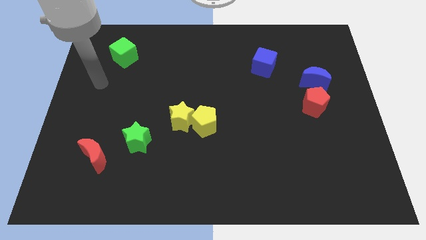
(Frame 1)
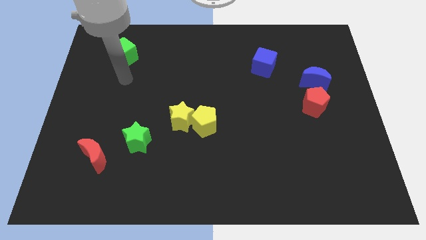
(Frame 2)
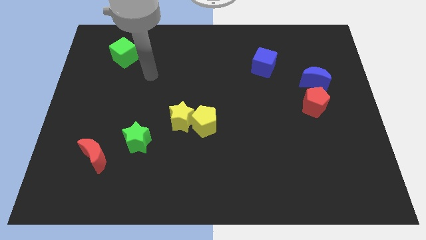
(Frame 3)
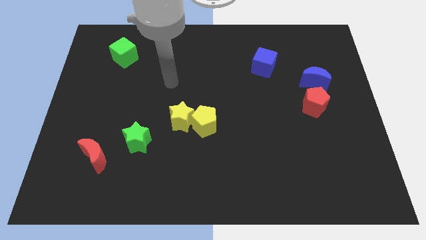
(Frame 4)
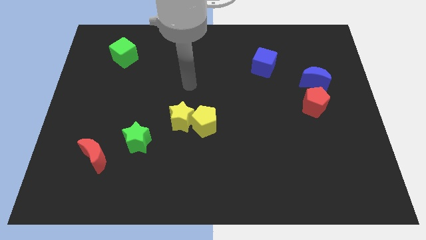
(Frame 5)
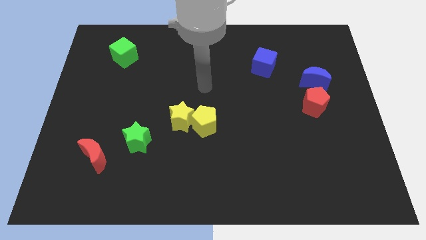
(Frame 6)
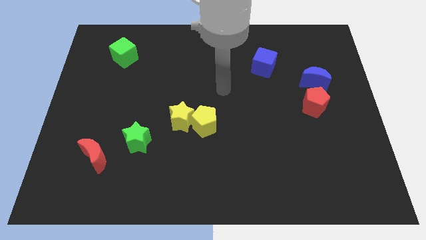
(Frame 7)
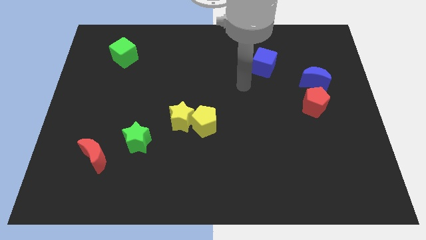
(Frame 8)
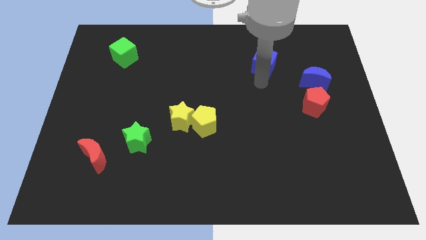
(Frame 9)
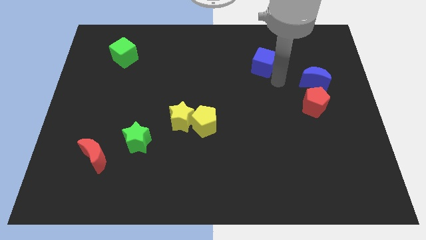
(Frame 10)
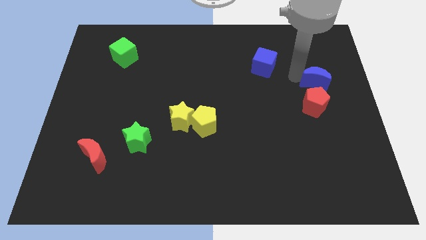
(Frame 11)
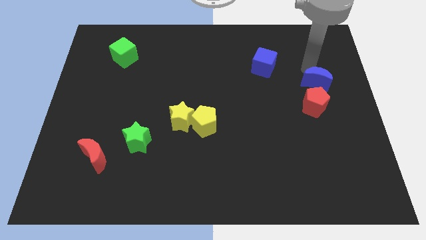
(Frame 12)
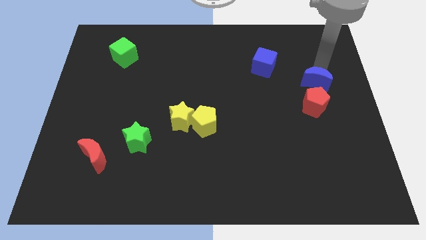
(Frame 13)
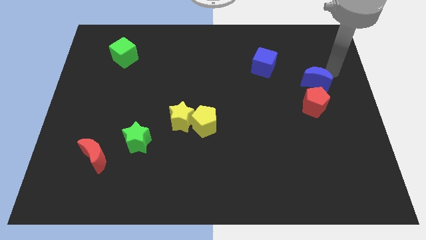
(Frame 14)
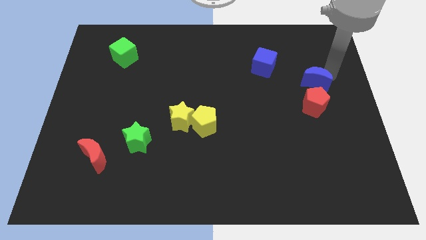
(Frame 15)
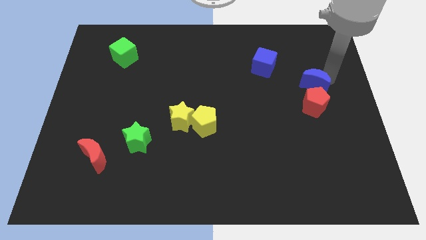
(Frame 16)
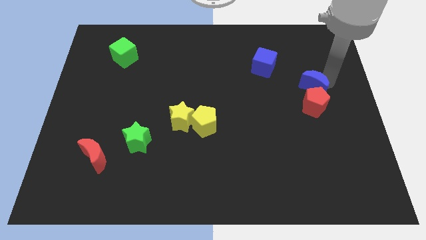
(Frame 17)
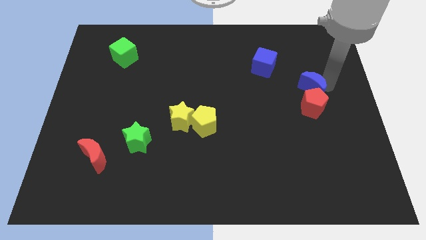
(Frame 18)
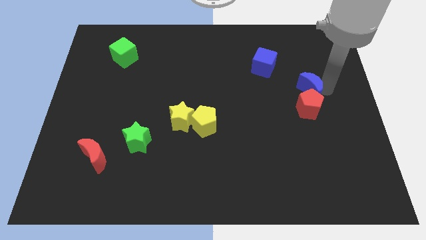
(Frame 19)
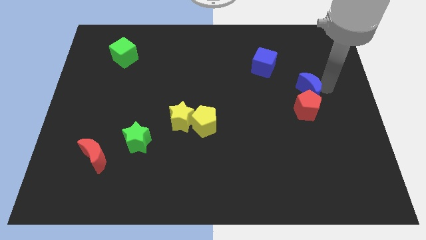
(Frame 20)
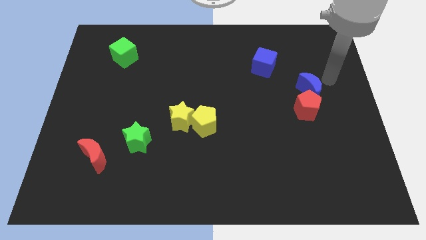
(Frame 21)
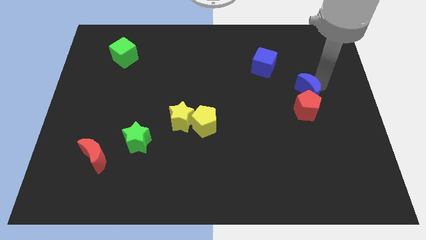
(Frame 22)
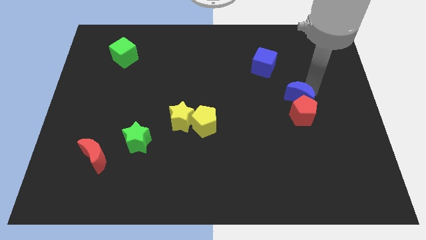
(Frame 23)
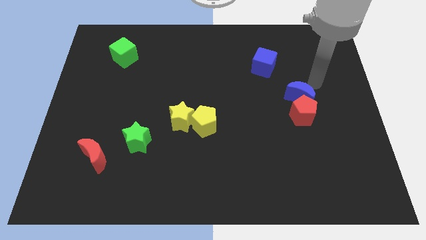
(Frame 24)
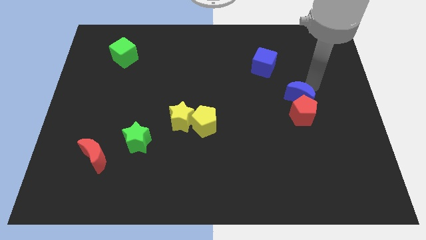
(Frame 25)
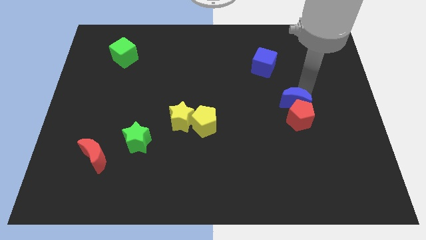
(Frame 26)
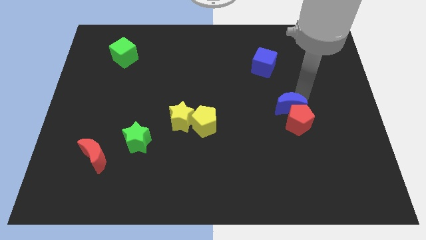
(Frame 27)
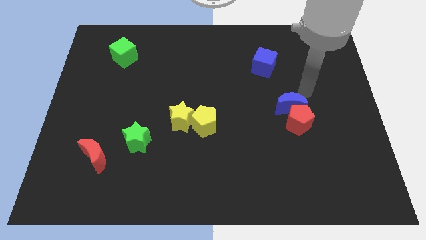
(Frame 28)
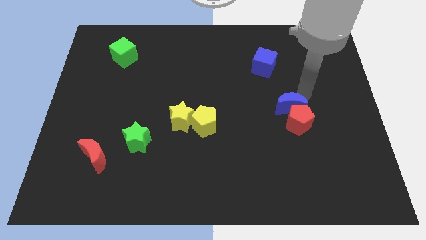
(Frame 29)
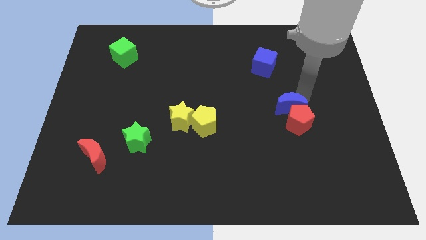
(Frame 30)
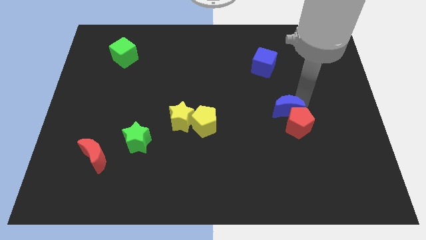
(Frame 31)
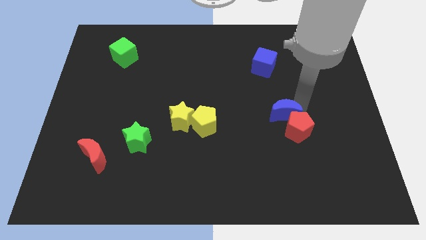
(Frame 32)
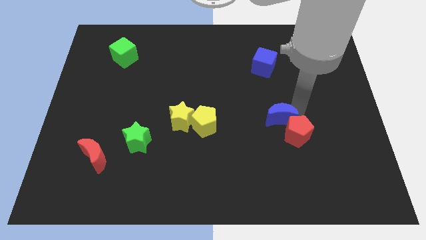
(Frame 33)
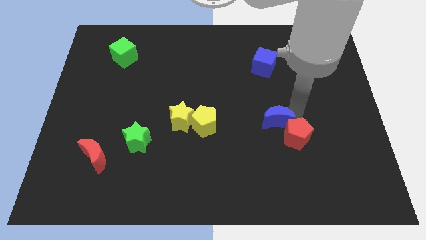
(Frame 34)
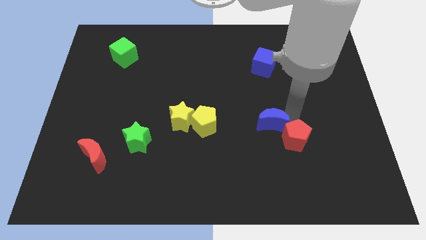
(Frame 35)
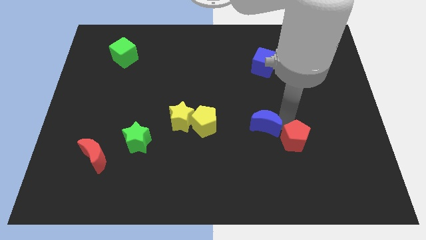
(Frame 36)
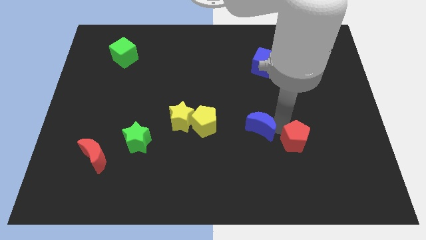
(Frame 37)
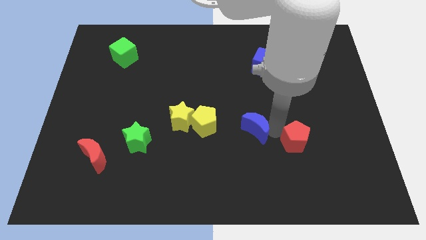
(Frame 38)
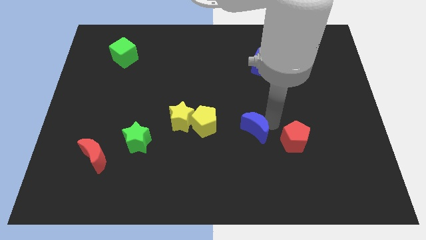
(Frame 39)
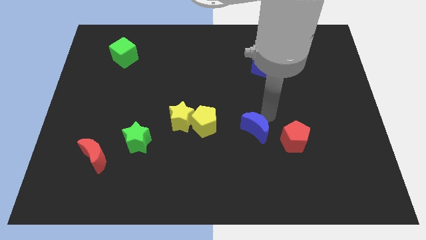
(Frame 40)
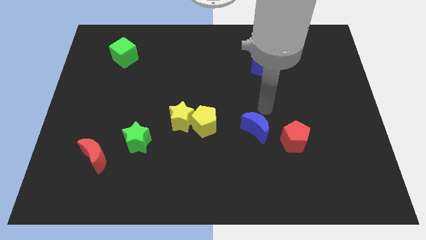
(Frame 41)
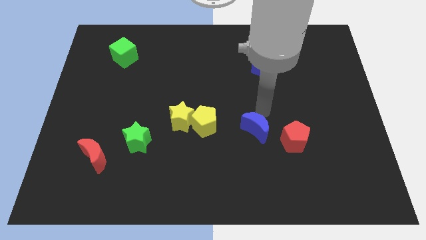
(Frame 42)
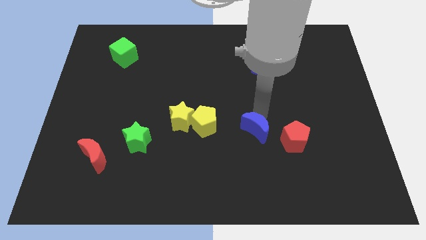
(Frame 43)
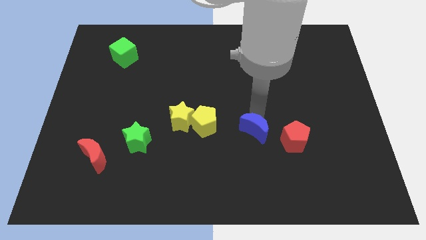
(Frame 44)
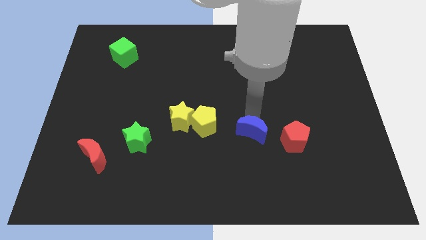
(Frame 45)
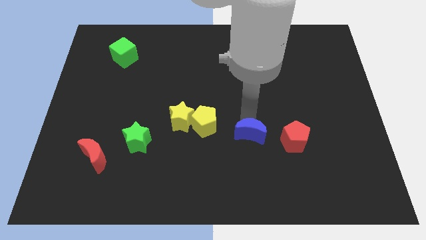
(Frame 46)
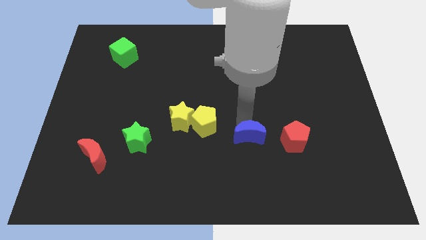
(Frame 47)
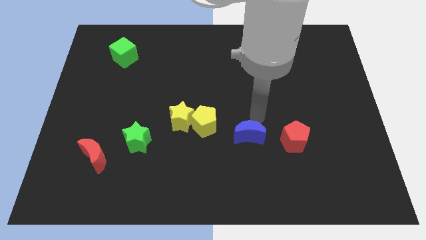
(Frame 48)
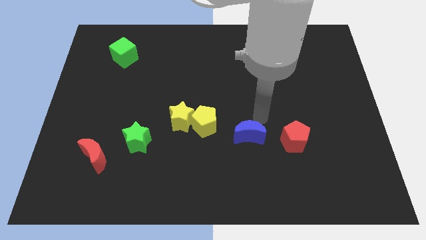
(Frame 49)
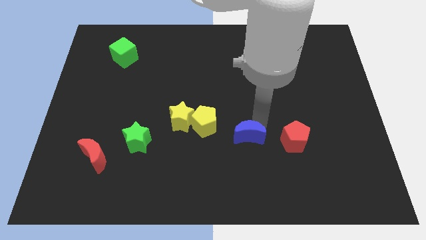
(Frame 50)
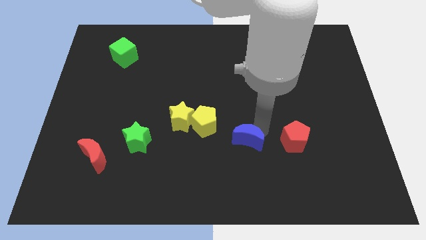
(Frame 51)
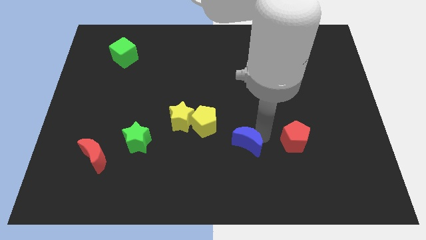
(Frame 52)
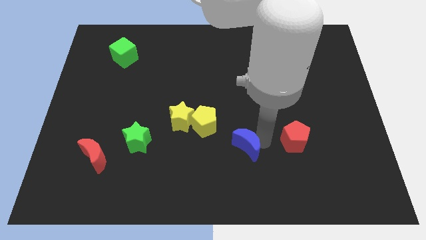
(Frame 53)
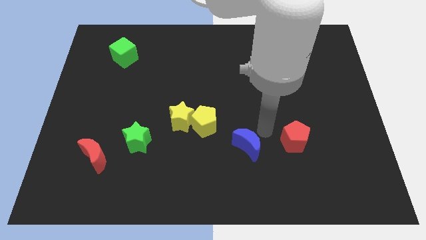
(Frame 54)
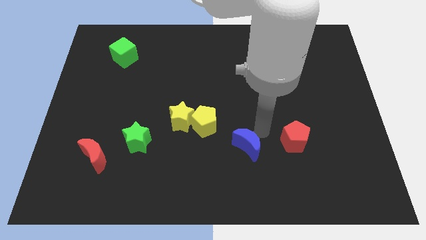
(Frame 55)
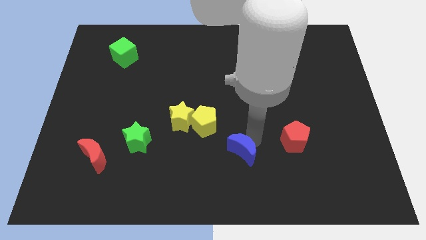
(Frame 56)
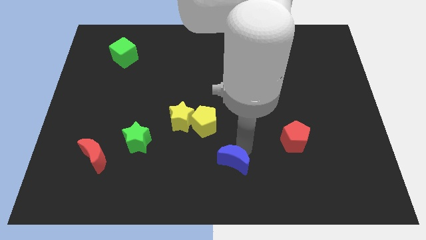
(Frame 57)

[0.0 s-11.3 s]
move the blue moon to the bottom side
